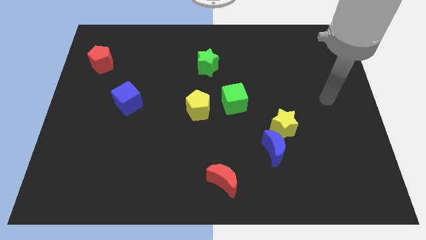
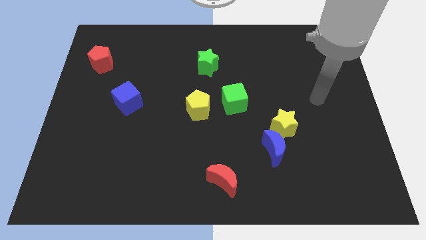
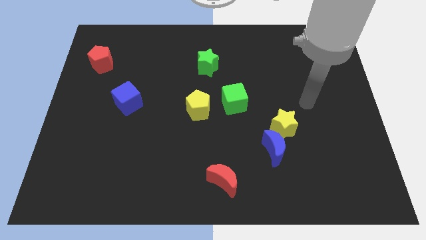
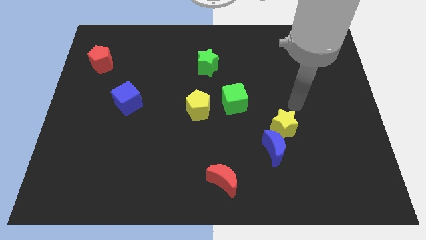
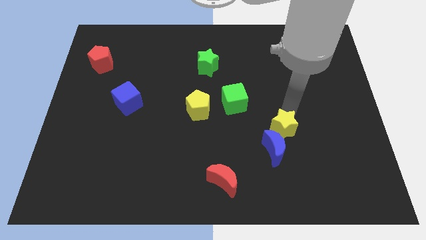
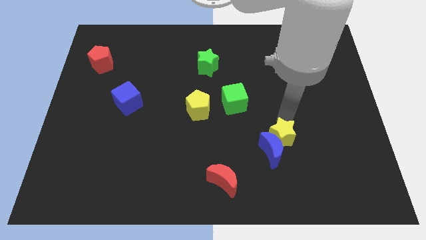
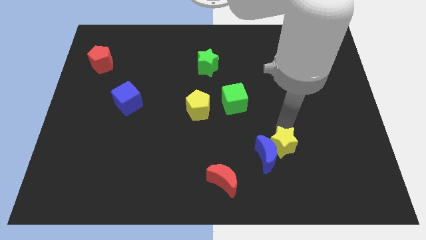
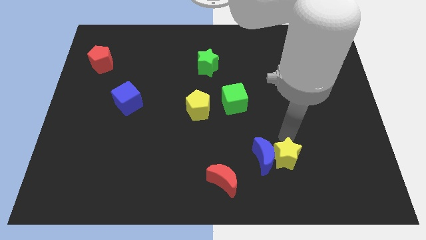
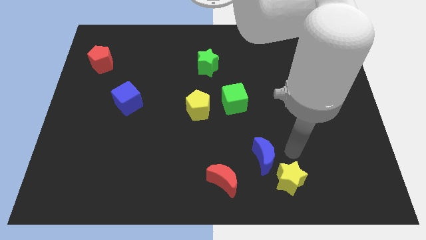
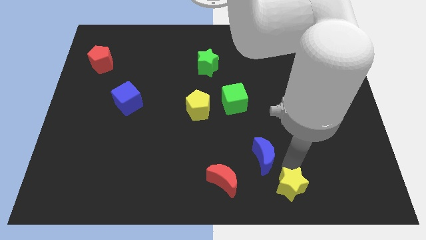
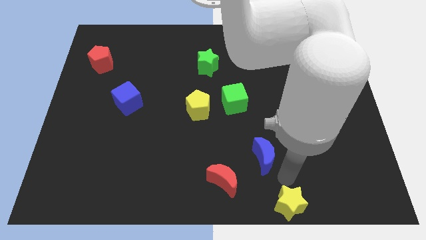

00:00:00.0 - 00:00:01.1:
pull the blue moon apart from the yellow star

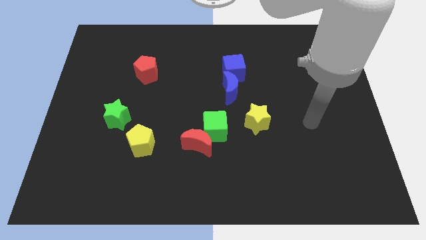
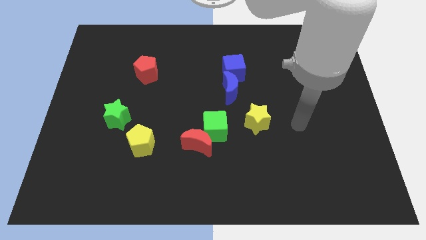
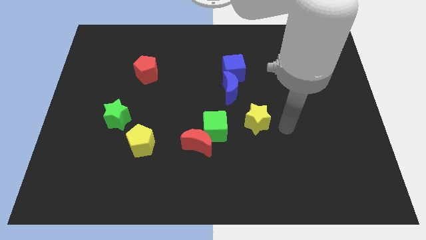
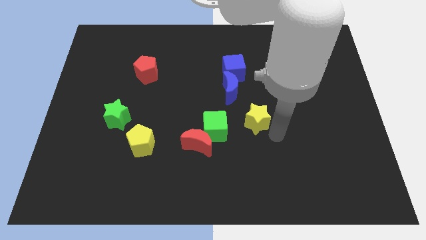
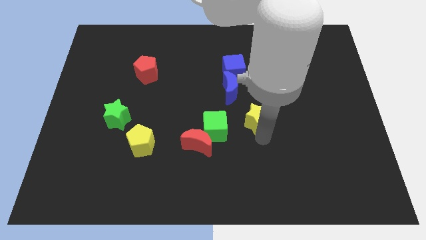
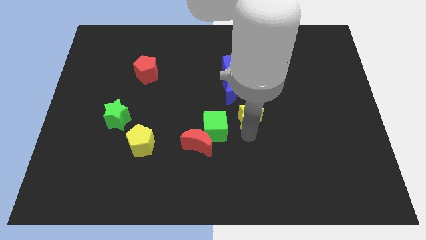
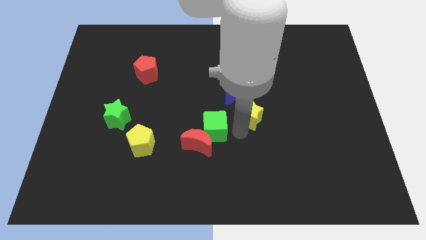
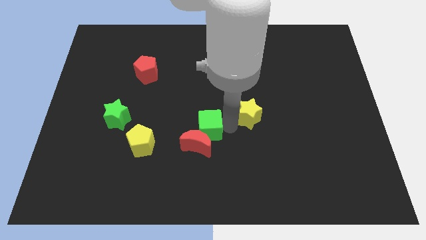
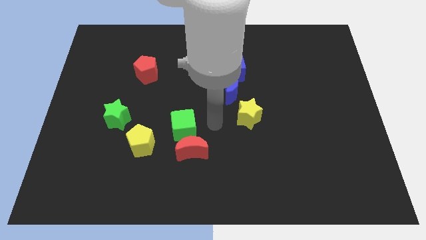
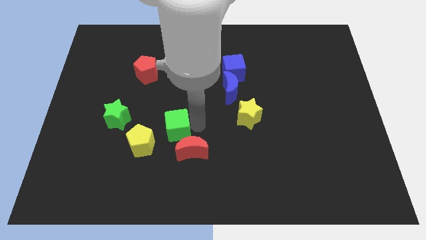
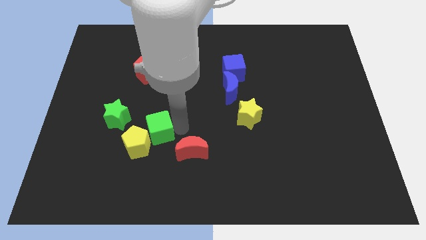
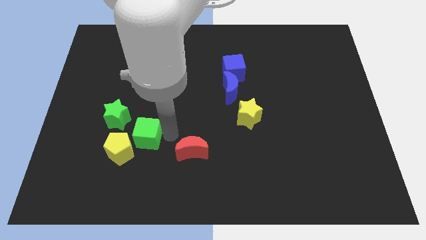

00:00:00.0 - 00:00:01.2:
move the red moon away from the green cube

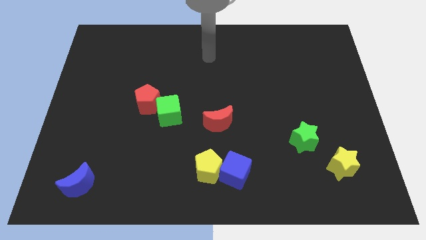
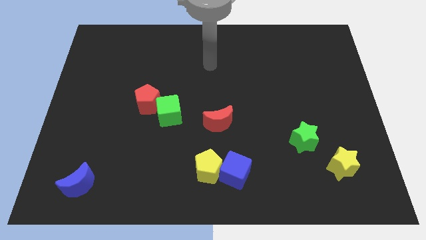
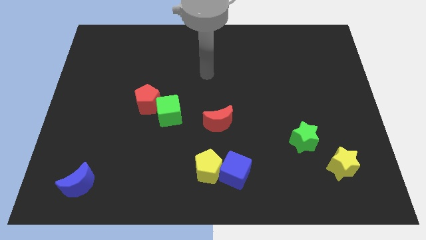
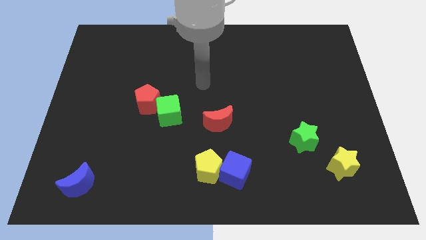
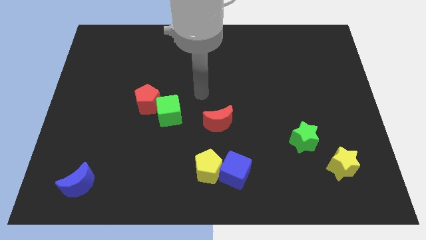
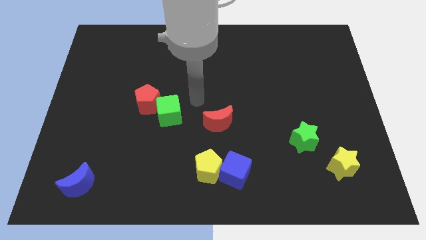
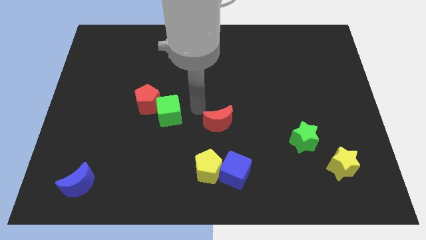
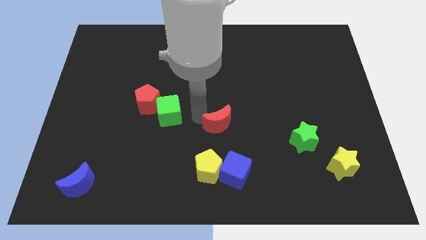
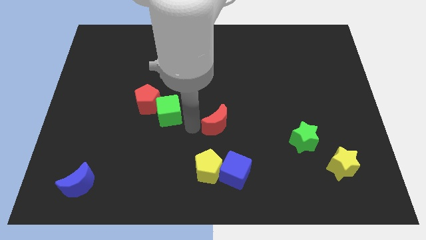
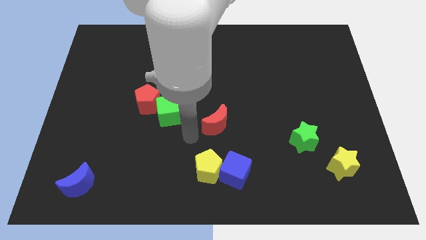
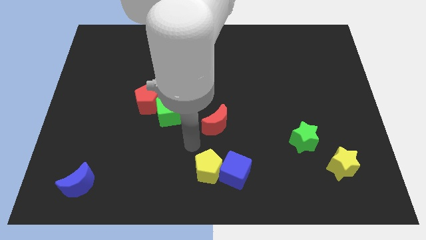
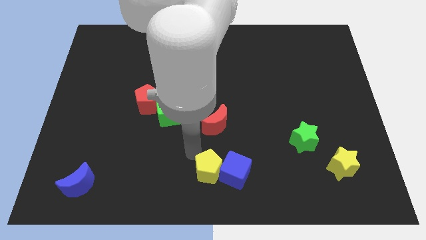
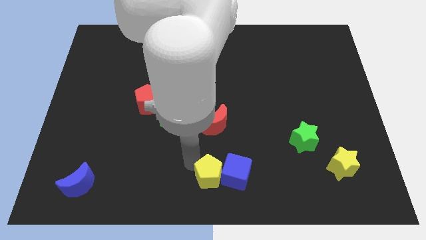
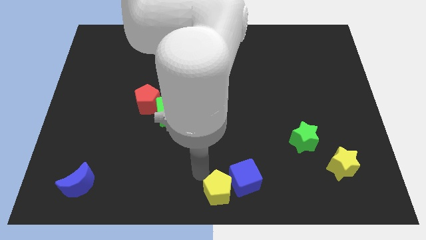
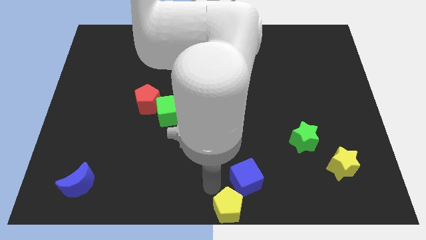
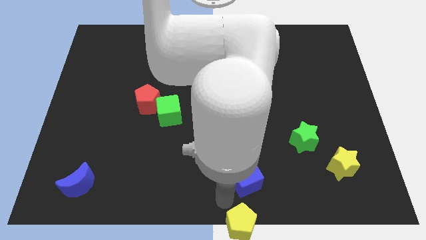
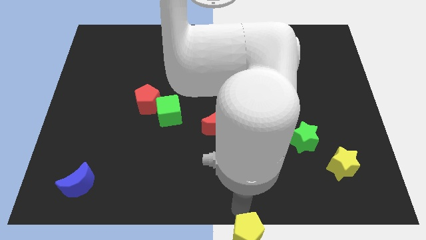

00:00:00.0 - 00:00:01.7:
move the blue cube away from the yellow pentagon

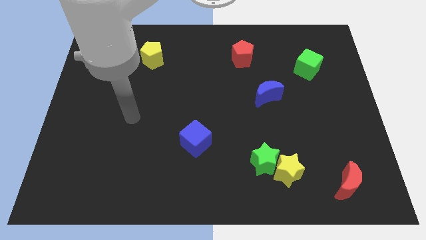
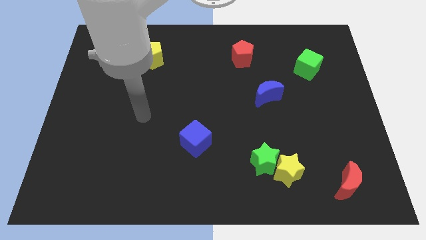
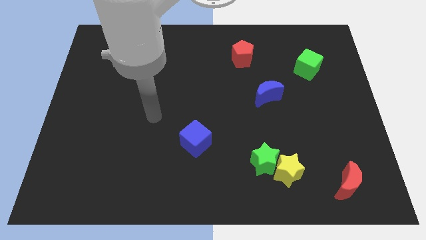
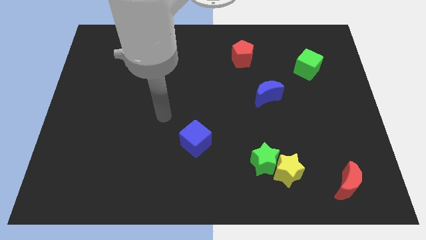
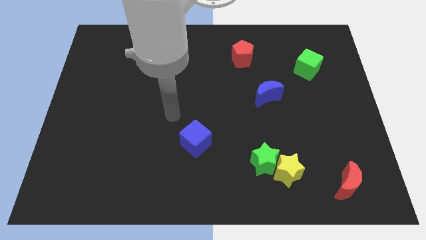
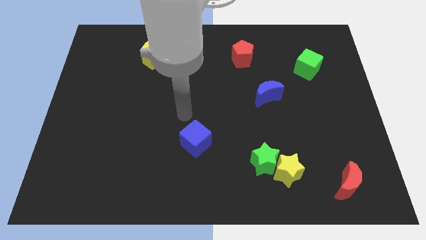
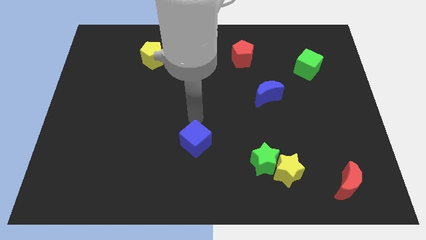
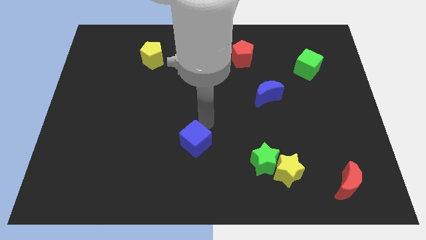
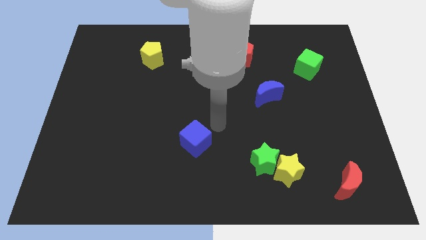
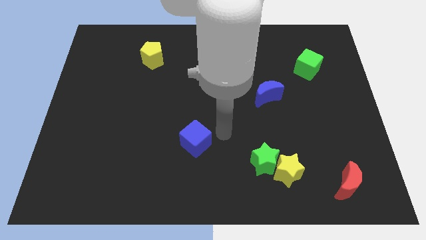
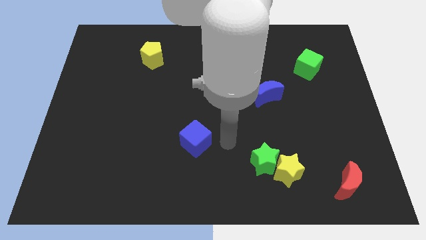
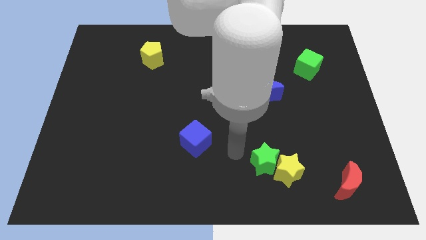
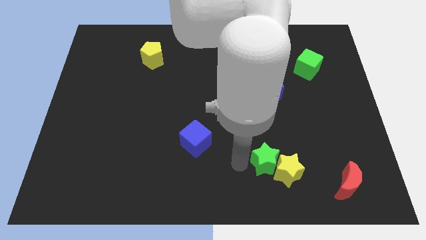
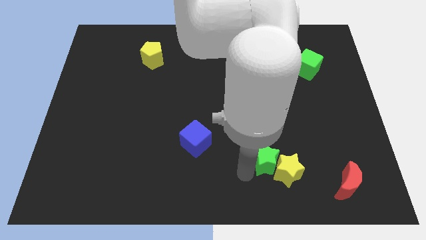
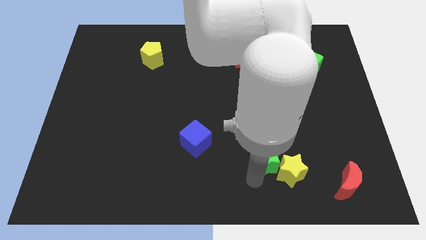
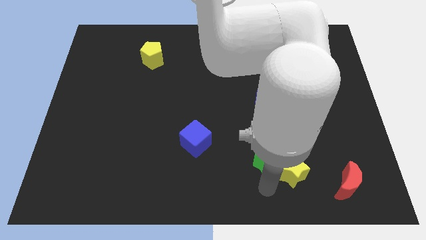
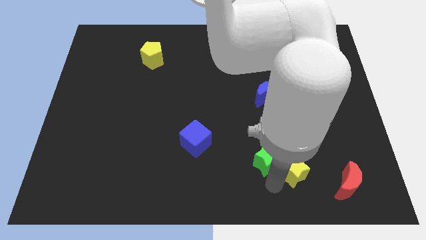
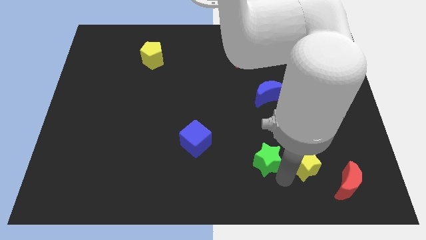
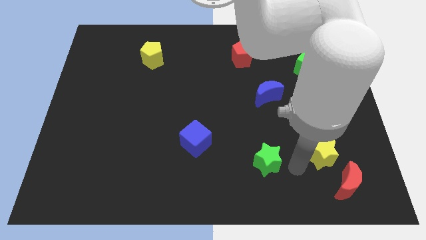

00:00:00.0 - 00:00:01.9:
separate the green star from the yellow star

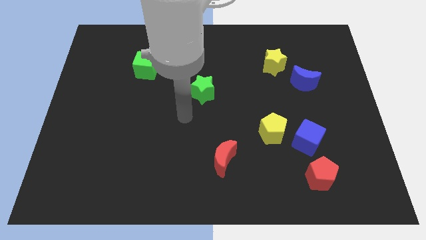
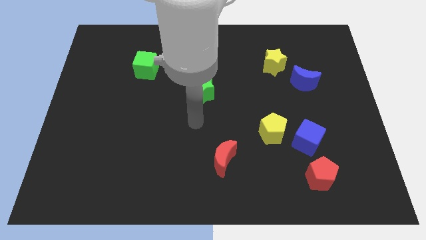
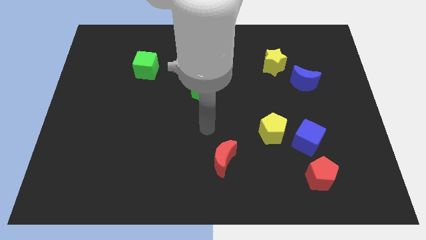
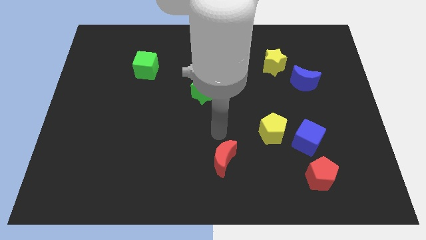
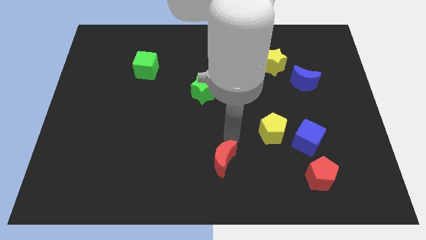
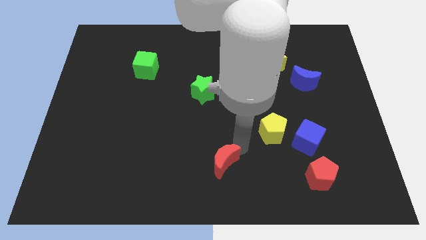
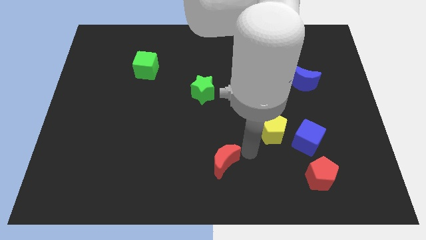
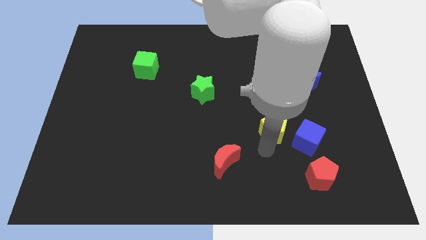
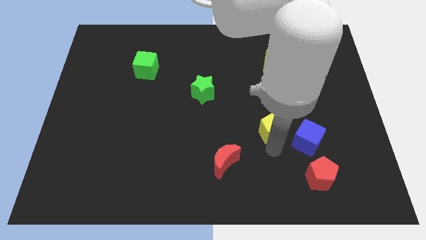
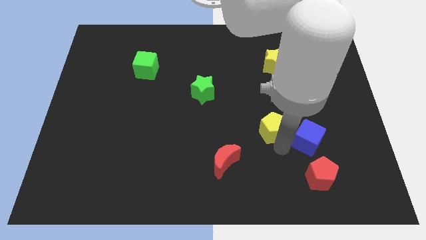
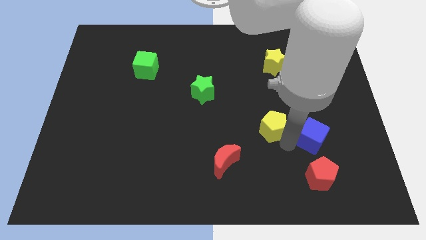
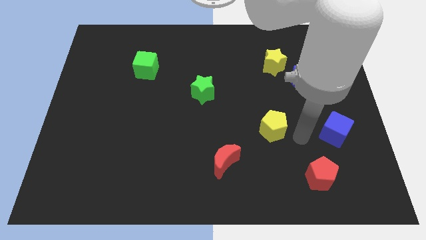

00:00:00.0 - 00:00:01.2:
pull the yellow pentagon apart from the blue cube

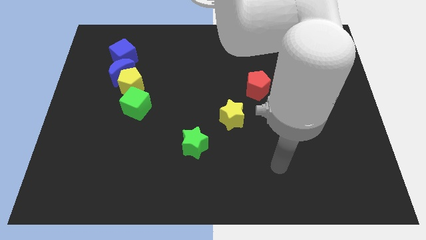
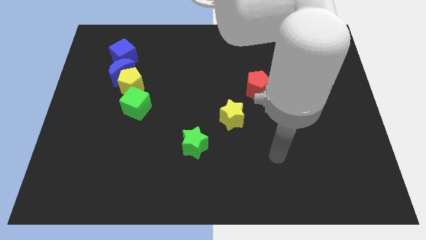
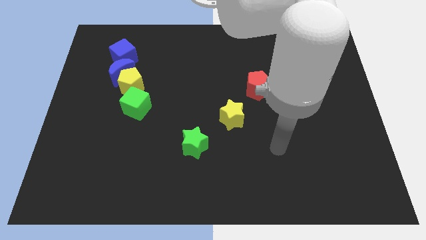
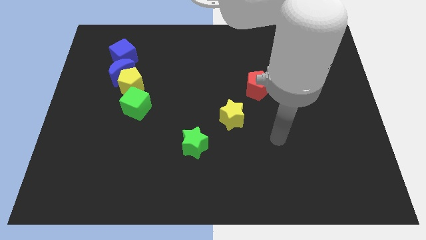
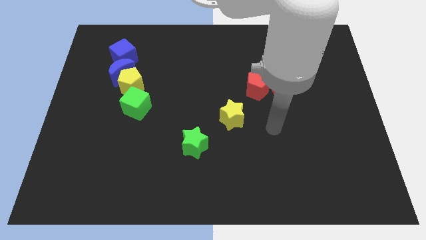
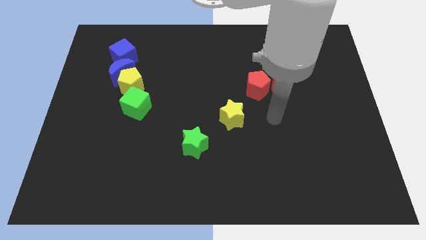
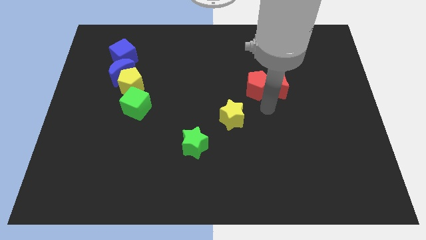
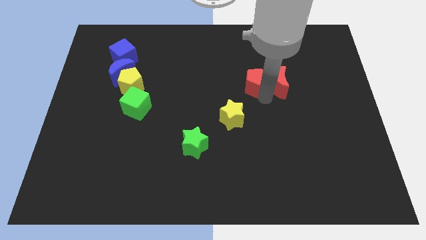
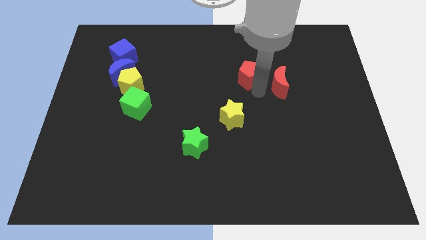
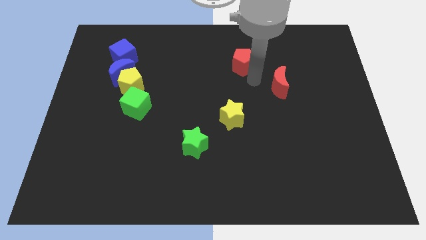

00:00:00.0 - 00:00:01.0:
pull the red moon apart from the red pentagon

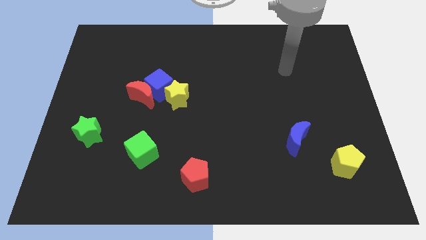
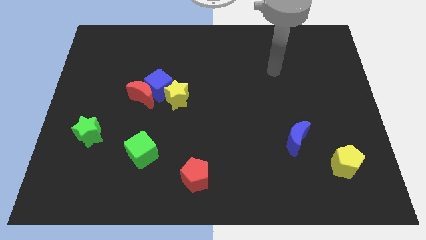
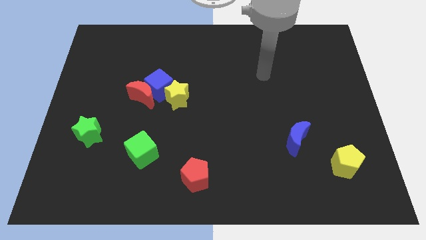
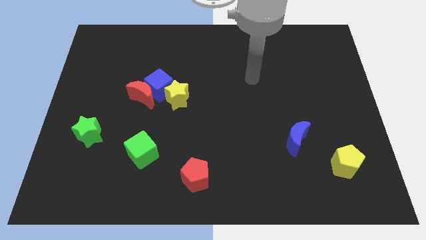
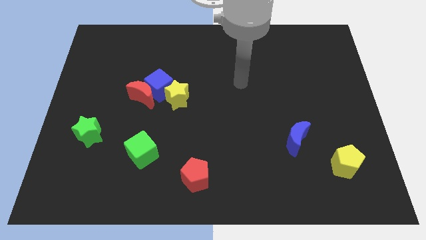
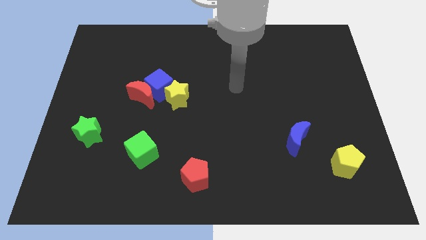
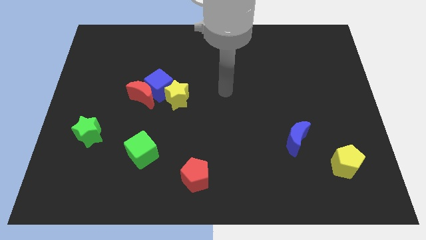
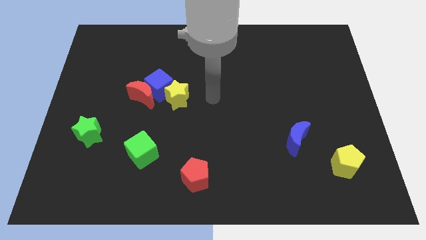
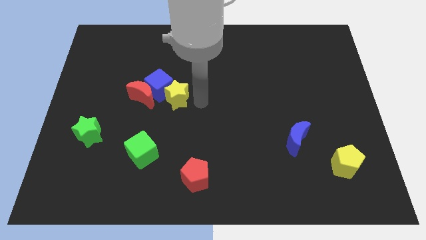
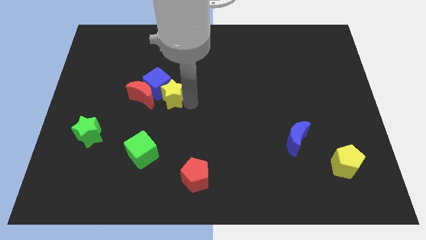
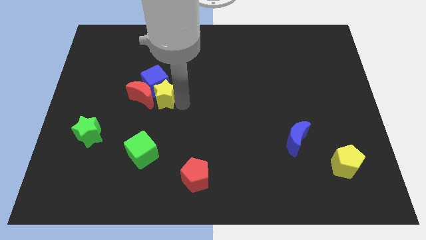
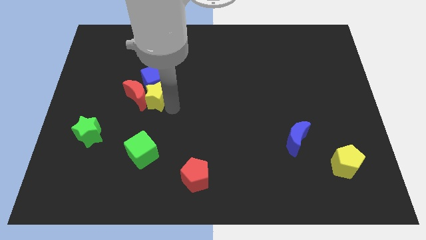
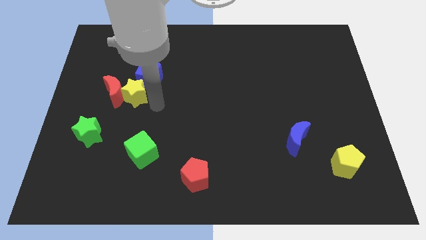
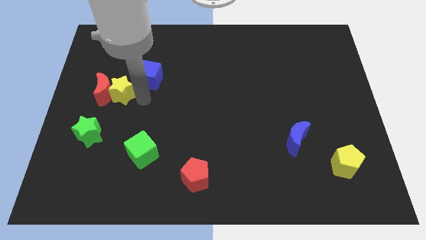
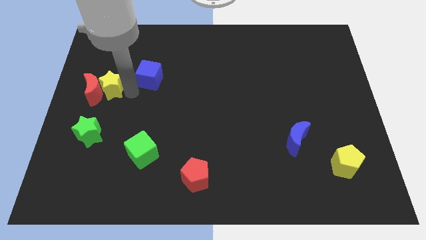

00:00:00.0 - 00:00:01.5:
separate the blue cube from the red moon and yellow star
